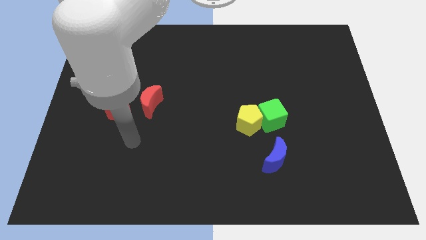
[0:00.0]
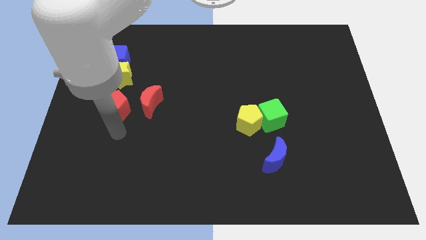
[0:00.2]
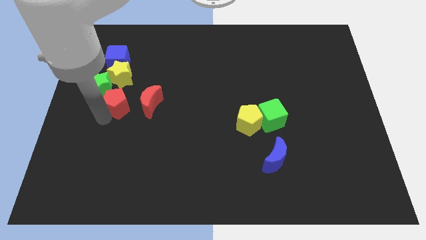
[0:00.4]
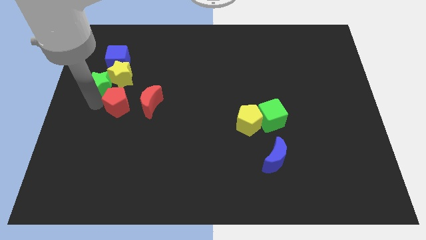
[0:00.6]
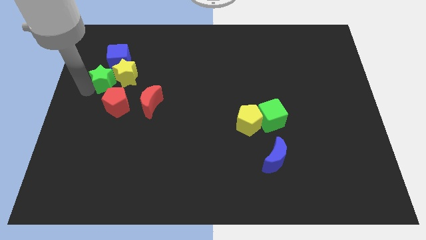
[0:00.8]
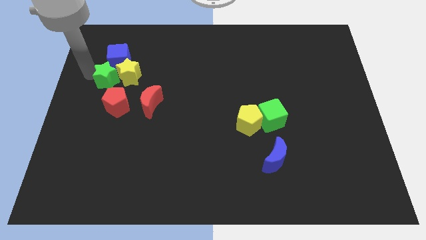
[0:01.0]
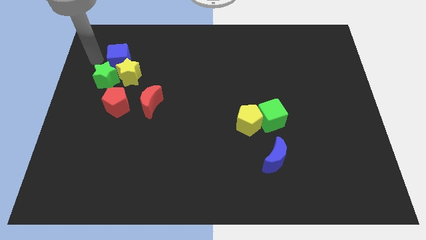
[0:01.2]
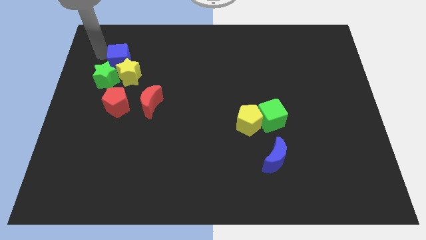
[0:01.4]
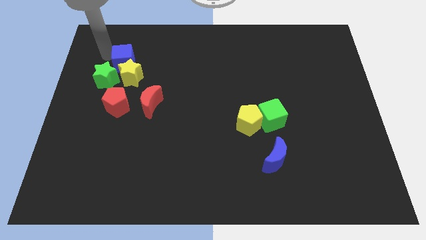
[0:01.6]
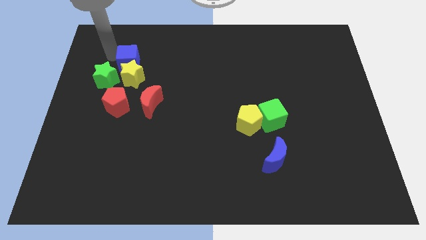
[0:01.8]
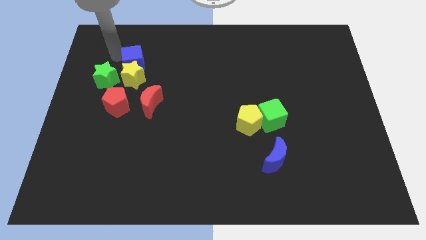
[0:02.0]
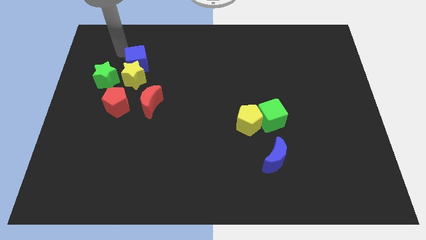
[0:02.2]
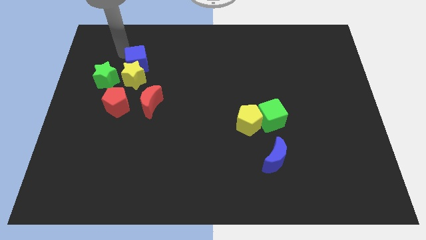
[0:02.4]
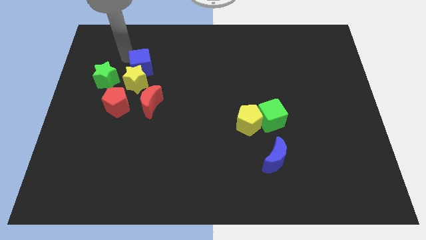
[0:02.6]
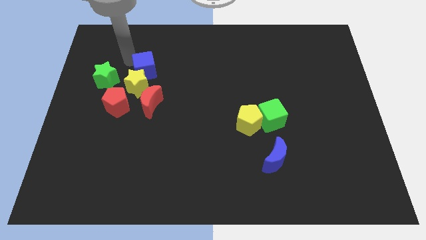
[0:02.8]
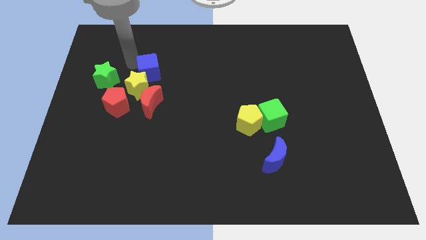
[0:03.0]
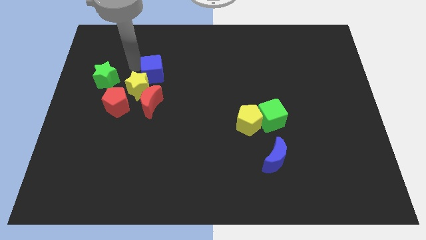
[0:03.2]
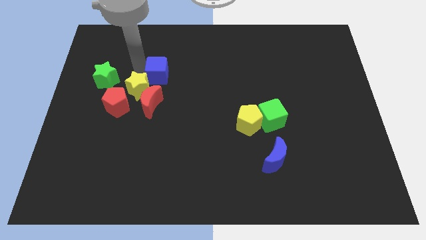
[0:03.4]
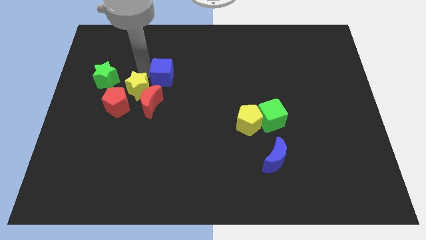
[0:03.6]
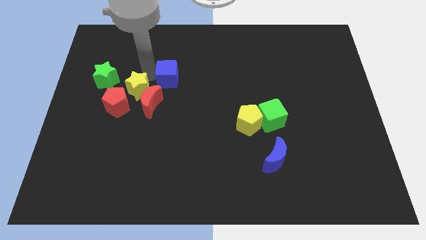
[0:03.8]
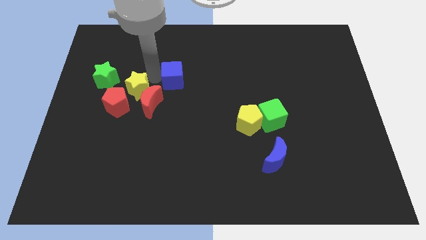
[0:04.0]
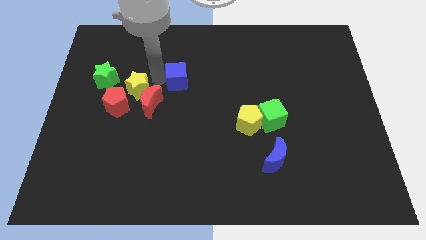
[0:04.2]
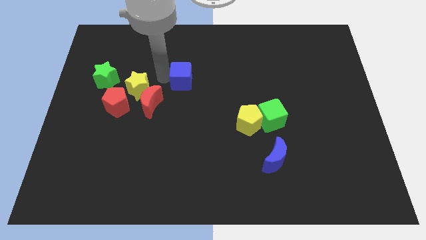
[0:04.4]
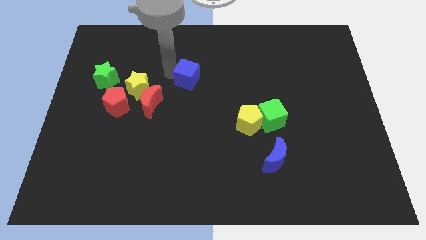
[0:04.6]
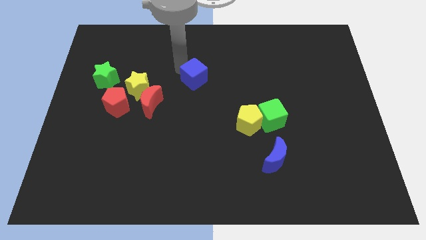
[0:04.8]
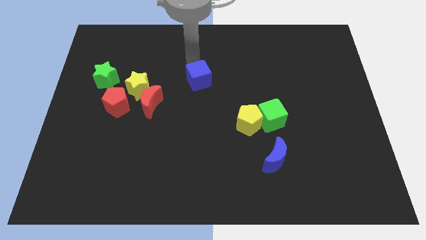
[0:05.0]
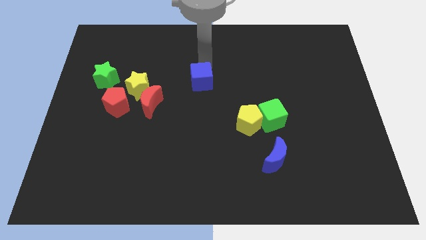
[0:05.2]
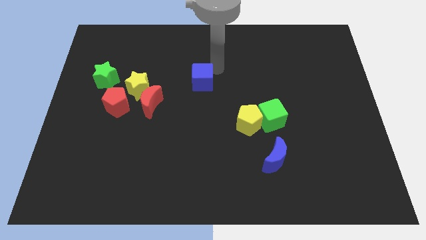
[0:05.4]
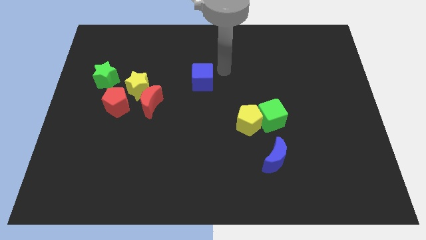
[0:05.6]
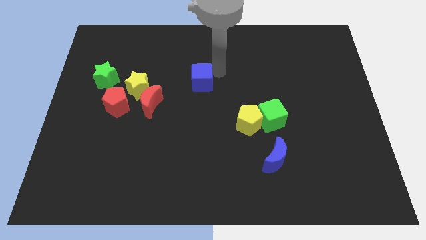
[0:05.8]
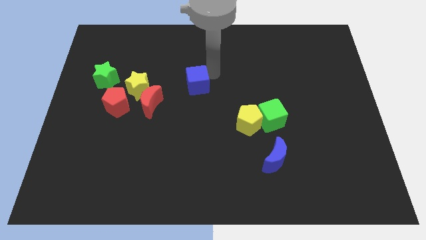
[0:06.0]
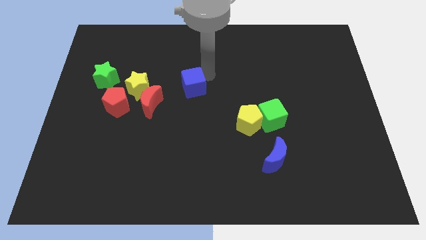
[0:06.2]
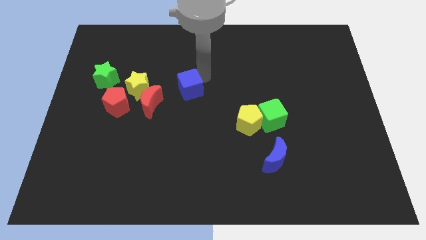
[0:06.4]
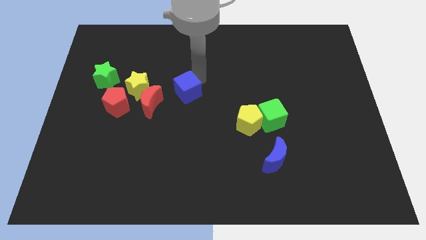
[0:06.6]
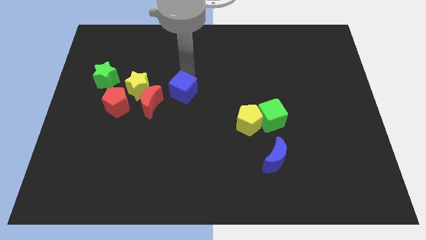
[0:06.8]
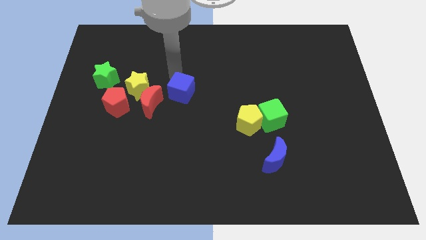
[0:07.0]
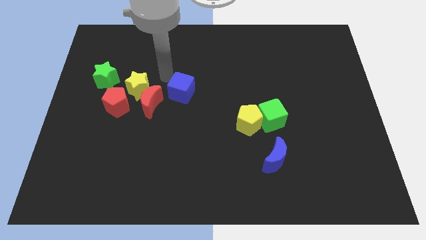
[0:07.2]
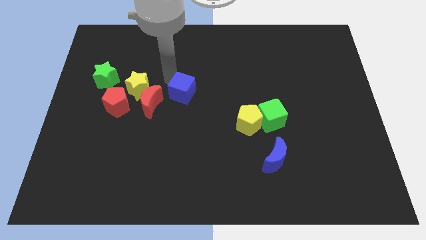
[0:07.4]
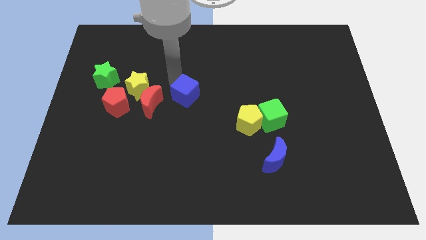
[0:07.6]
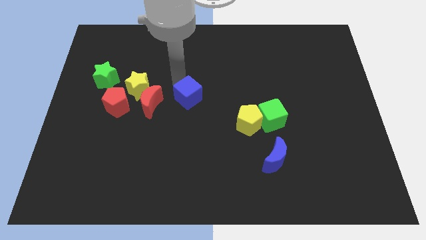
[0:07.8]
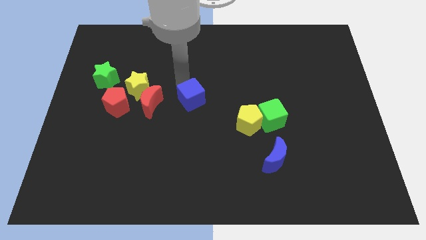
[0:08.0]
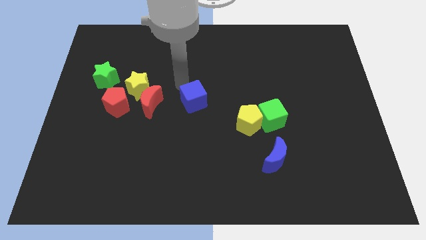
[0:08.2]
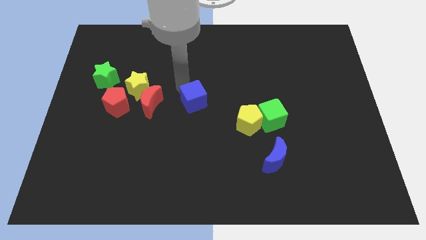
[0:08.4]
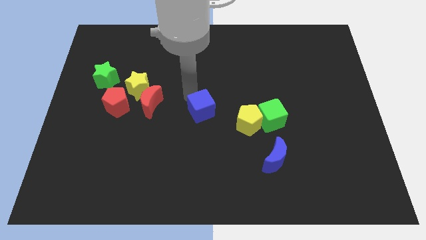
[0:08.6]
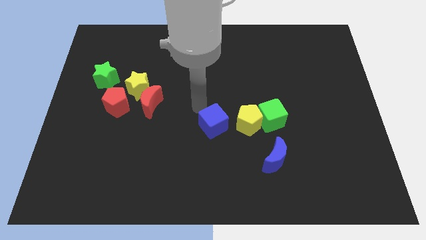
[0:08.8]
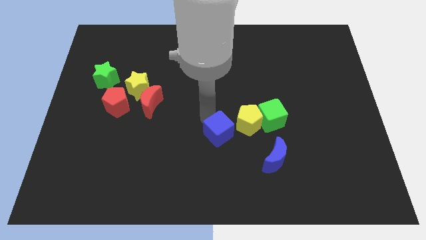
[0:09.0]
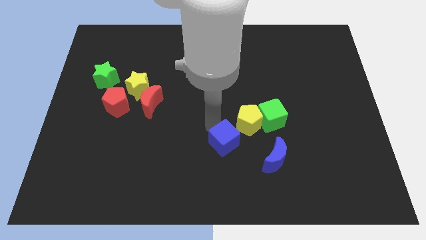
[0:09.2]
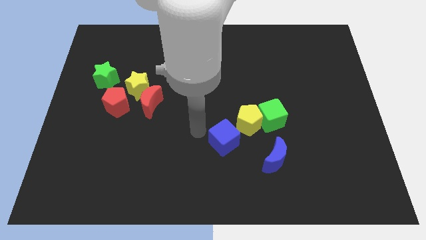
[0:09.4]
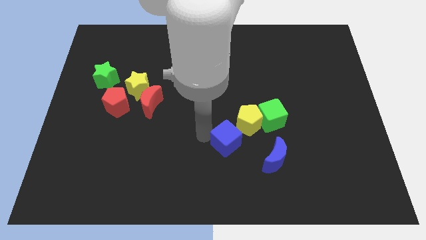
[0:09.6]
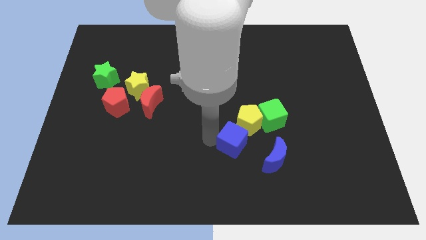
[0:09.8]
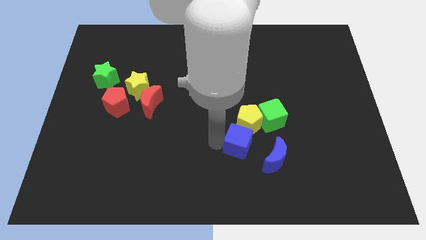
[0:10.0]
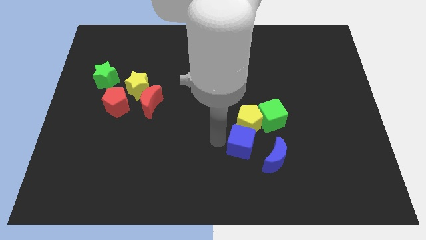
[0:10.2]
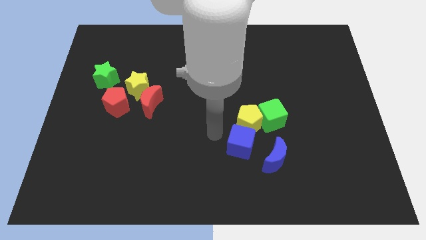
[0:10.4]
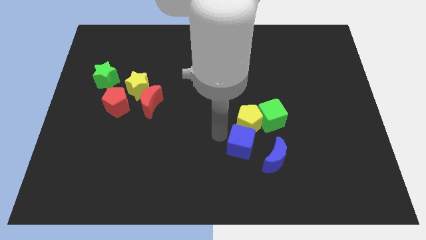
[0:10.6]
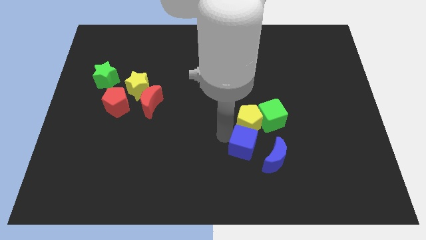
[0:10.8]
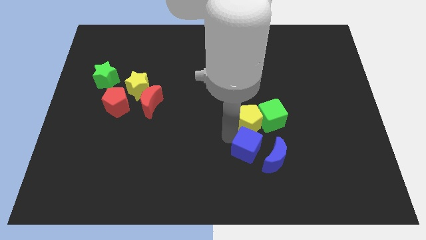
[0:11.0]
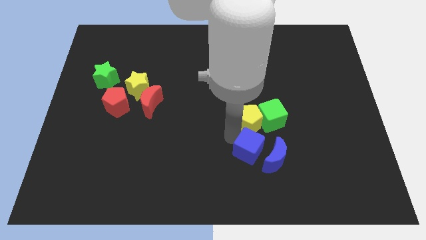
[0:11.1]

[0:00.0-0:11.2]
move the blue cube close to the blue moon

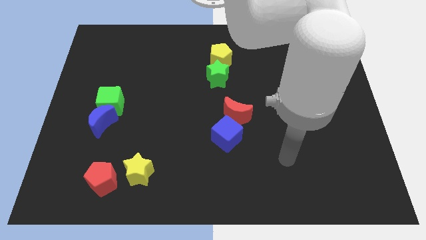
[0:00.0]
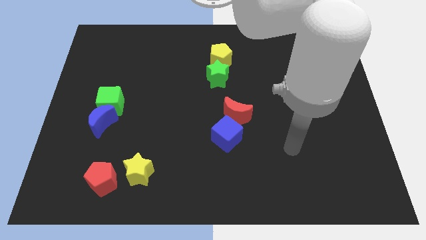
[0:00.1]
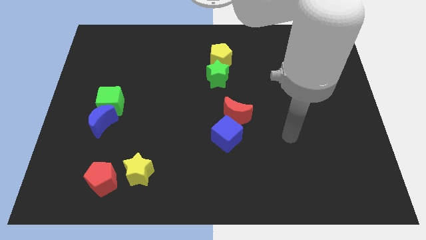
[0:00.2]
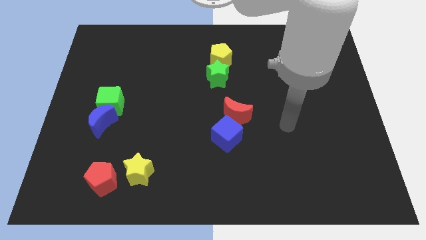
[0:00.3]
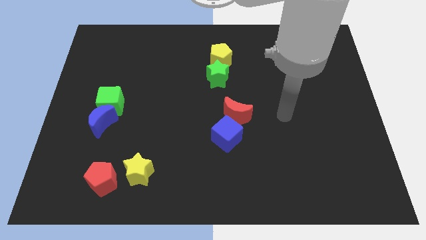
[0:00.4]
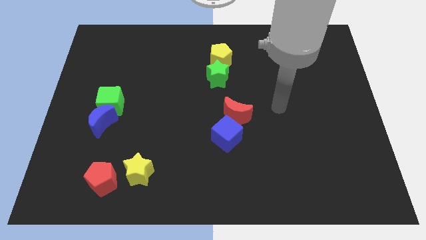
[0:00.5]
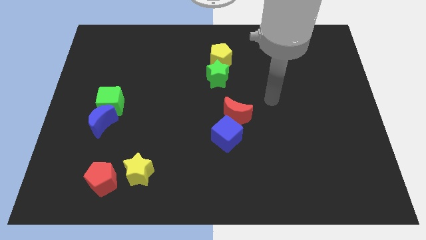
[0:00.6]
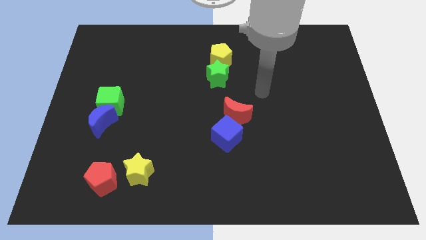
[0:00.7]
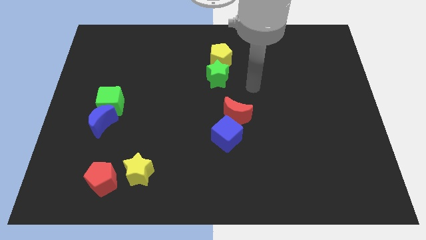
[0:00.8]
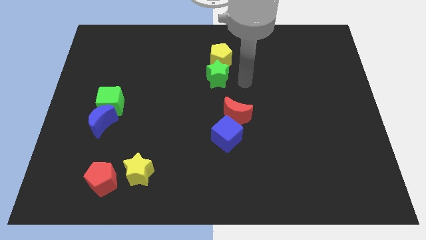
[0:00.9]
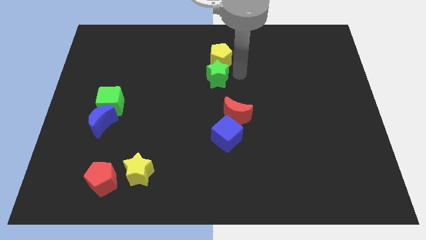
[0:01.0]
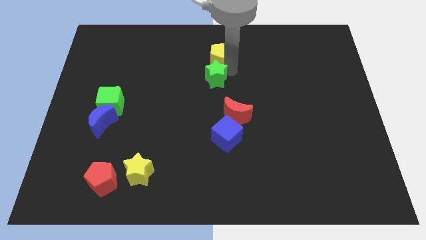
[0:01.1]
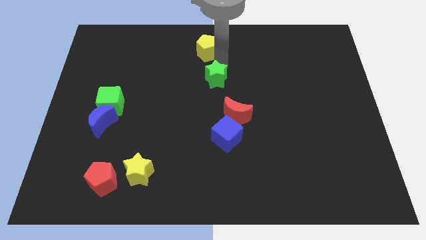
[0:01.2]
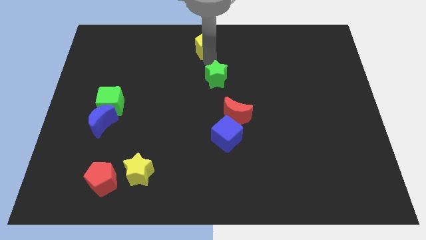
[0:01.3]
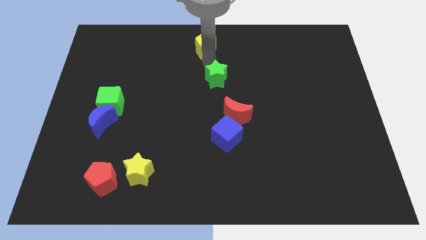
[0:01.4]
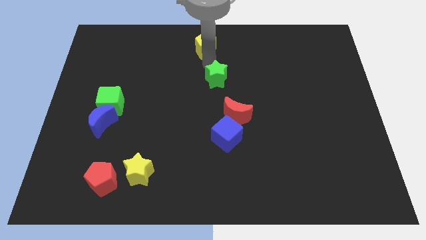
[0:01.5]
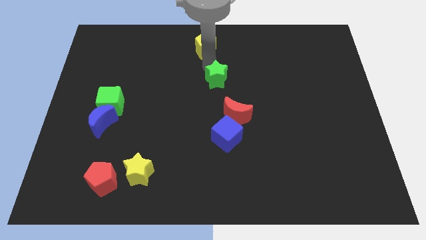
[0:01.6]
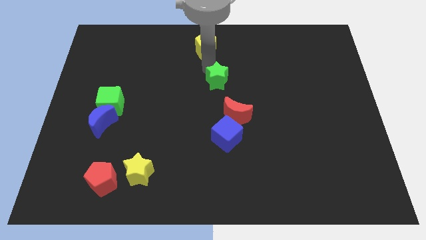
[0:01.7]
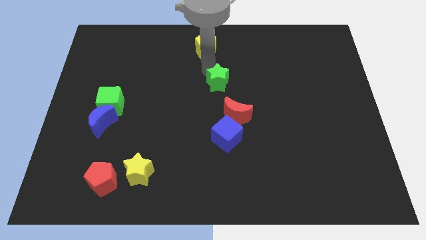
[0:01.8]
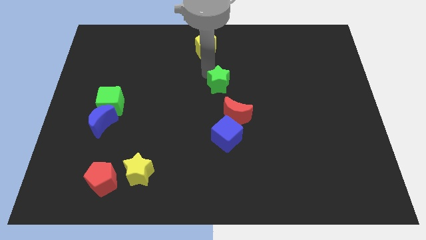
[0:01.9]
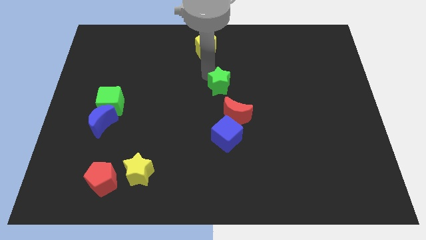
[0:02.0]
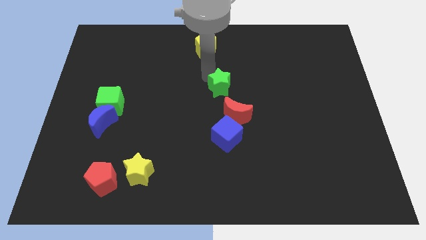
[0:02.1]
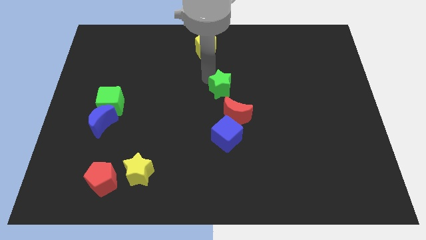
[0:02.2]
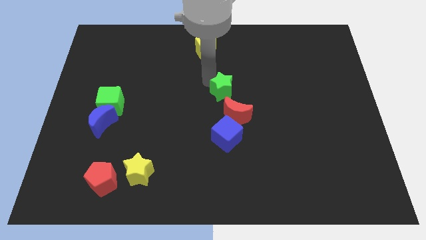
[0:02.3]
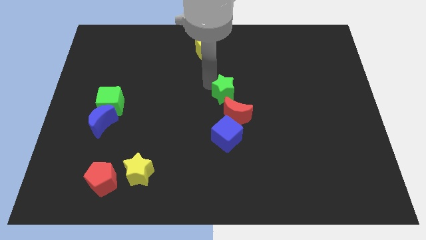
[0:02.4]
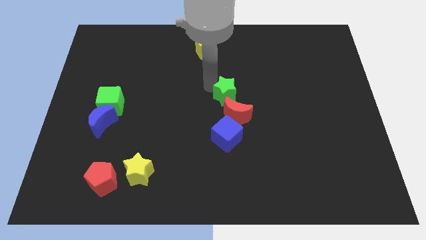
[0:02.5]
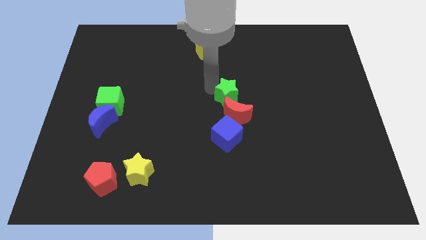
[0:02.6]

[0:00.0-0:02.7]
move the green star towards the red moon
